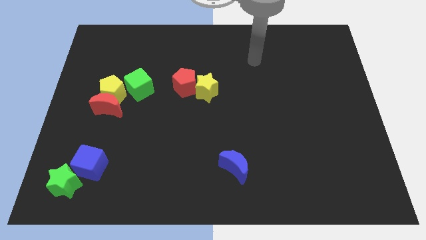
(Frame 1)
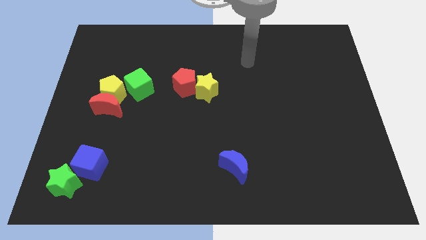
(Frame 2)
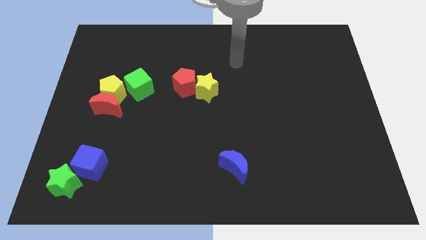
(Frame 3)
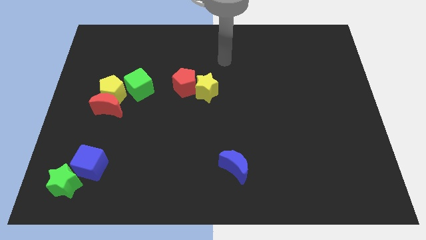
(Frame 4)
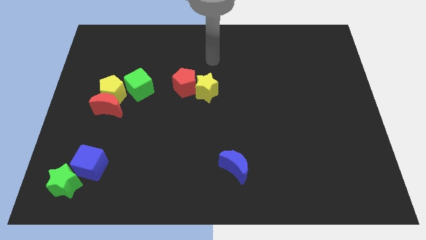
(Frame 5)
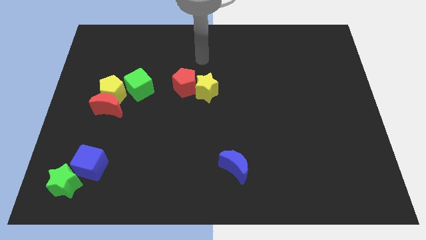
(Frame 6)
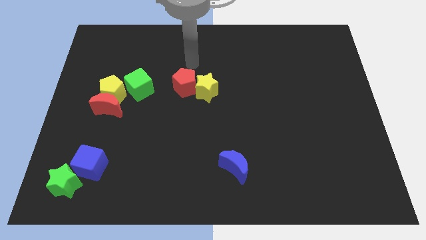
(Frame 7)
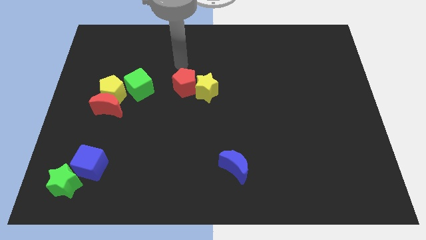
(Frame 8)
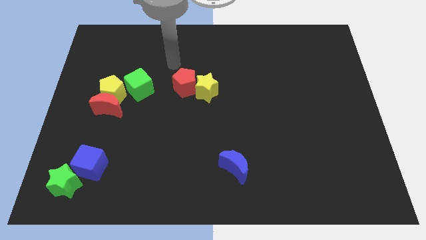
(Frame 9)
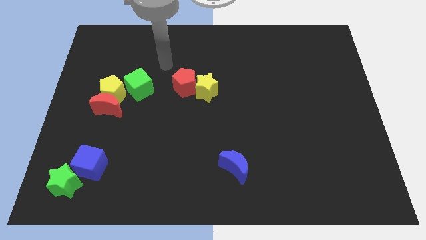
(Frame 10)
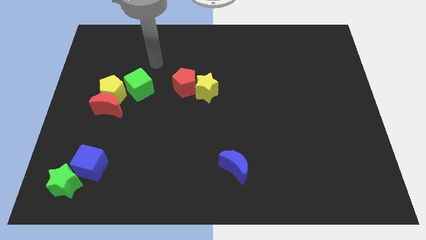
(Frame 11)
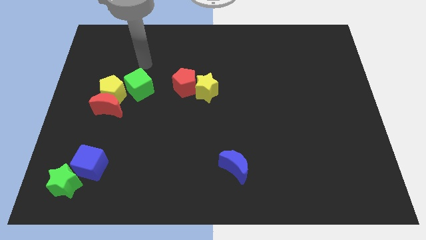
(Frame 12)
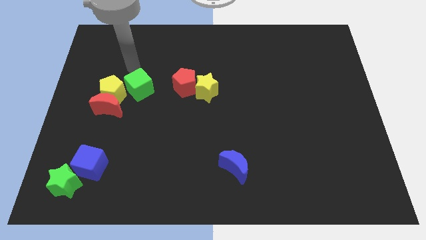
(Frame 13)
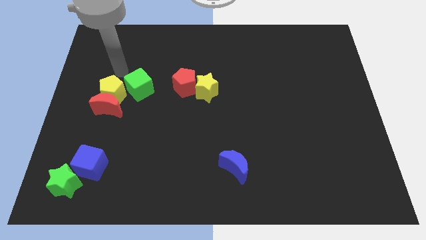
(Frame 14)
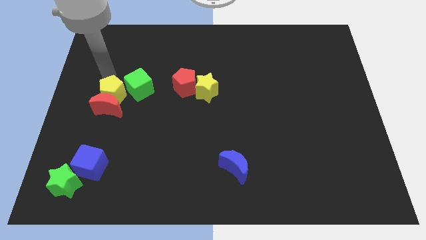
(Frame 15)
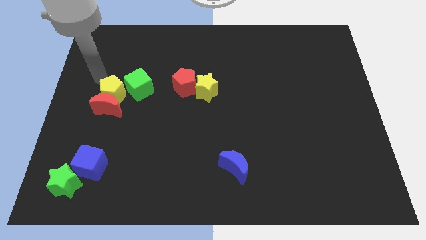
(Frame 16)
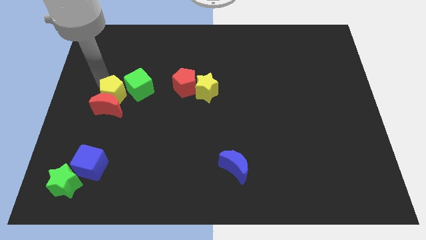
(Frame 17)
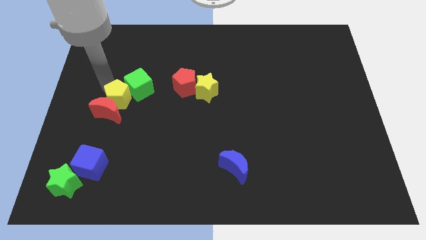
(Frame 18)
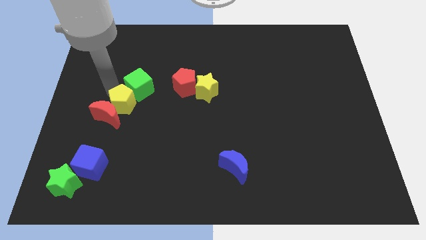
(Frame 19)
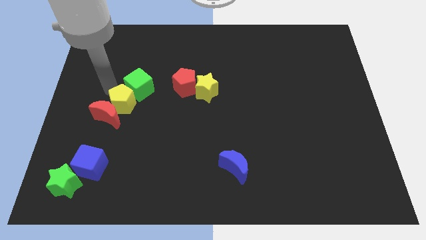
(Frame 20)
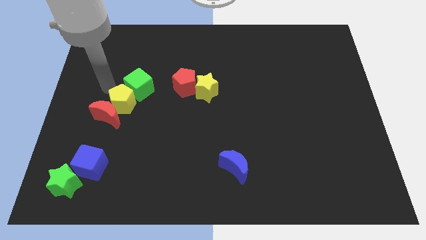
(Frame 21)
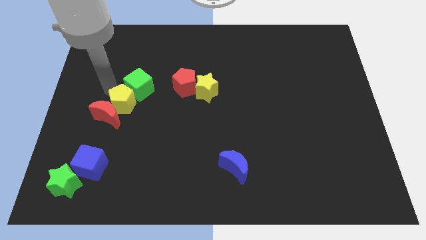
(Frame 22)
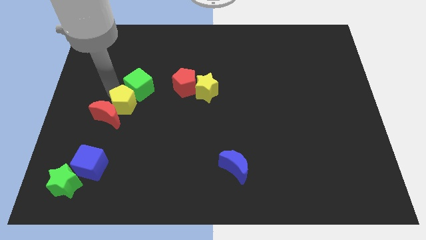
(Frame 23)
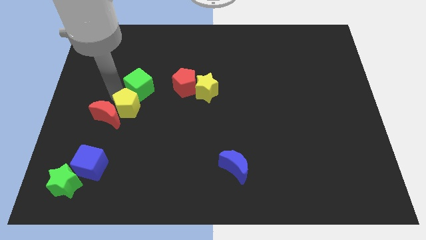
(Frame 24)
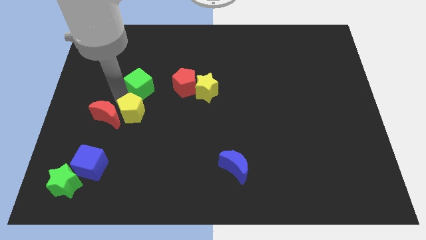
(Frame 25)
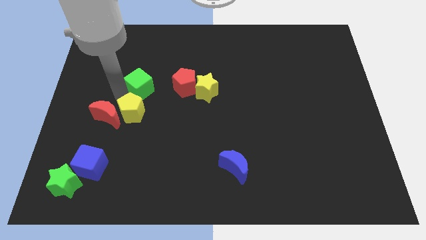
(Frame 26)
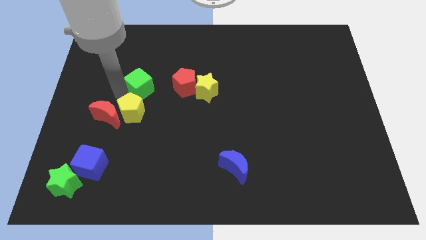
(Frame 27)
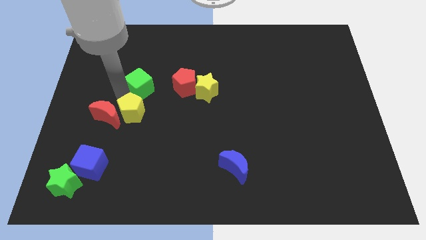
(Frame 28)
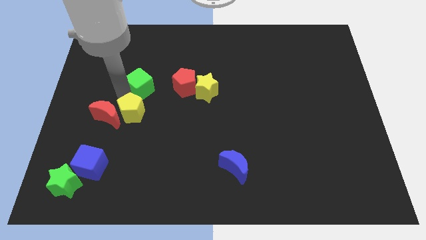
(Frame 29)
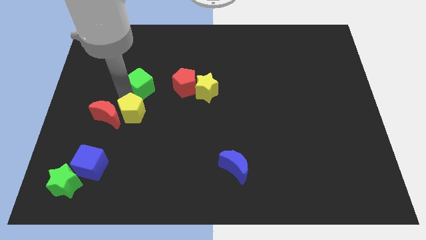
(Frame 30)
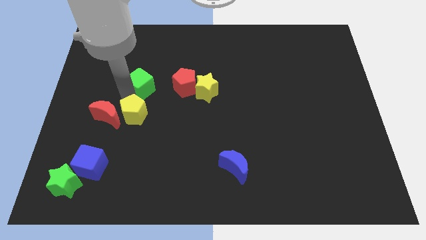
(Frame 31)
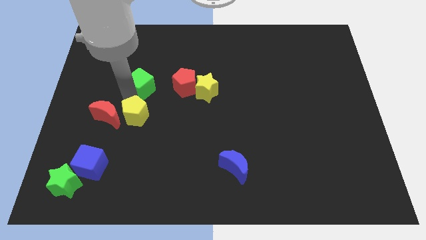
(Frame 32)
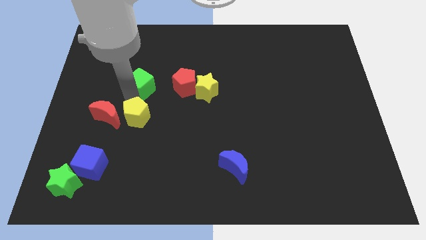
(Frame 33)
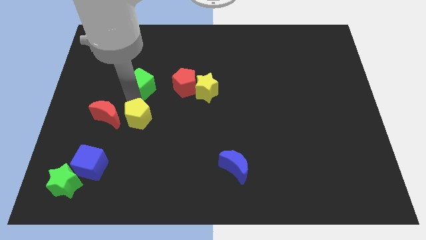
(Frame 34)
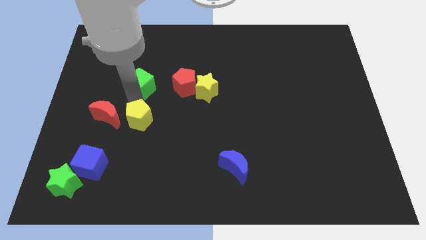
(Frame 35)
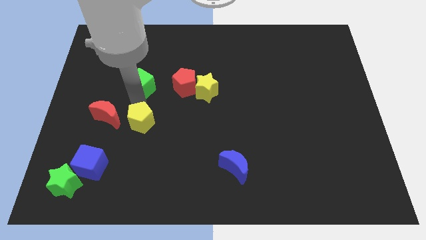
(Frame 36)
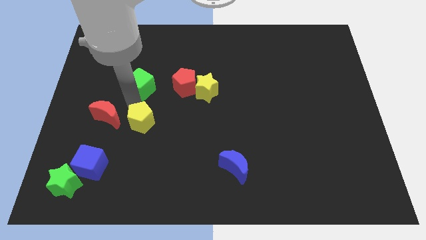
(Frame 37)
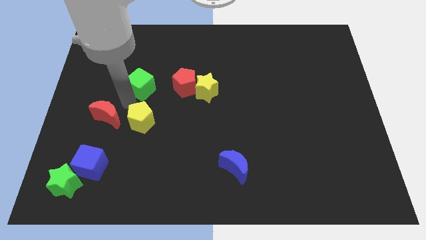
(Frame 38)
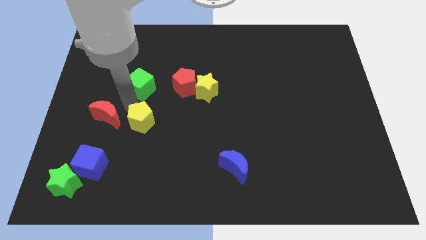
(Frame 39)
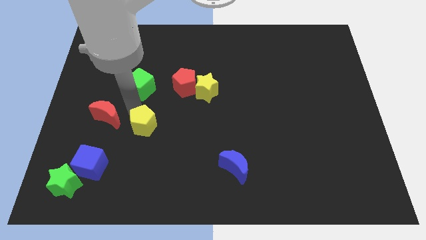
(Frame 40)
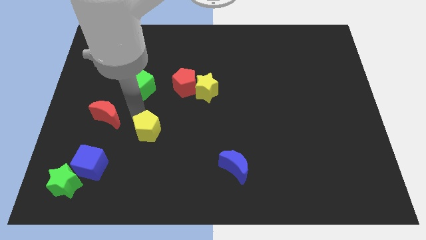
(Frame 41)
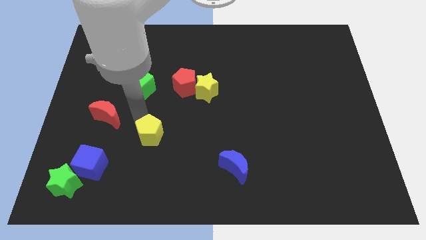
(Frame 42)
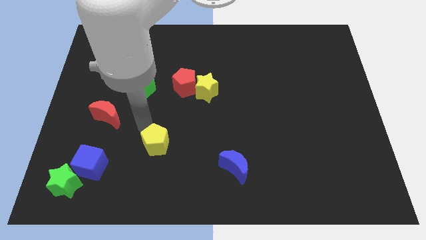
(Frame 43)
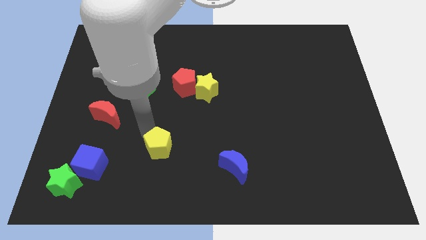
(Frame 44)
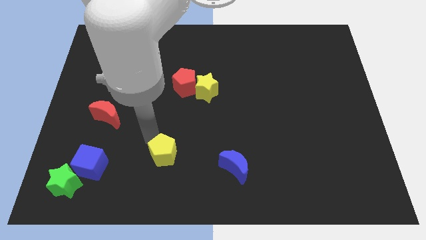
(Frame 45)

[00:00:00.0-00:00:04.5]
slide the yellow pentagon downwards and to the right diagonally

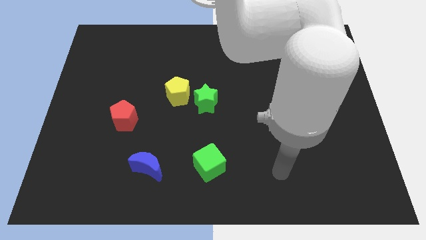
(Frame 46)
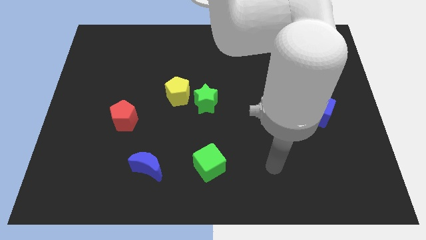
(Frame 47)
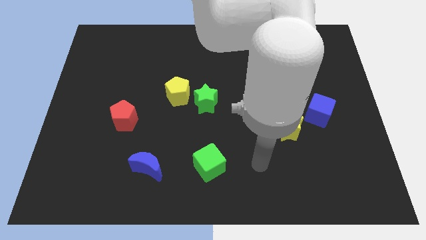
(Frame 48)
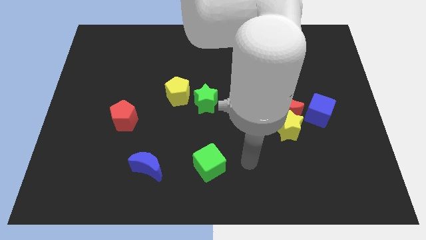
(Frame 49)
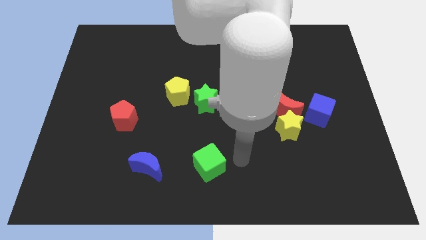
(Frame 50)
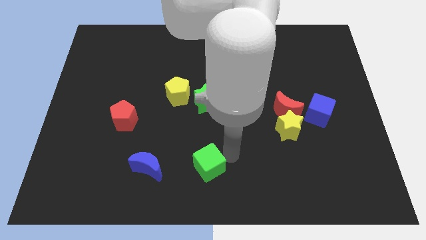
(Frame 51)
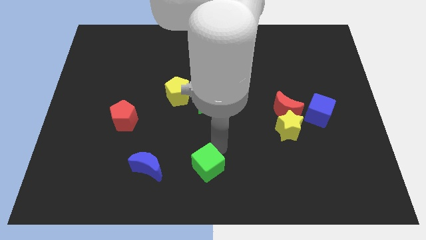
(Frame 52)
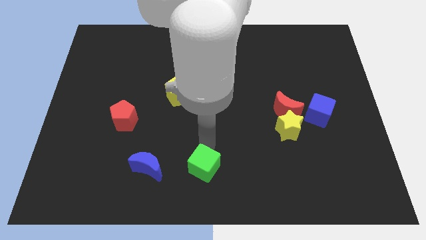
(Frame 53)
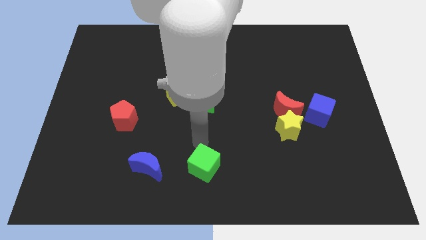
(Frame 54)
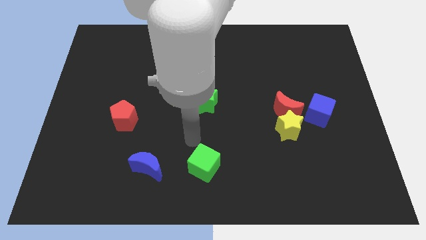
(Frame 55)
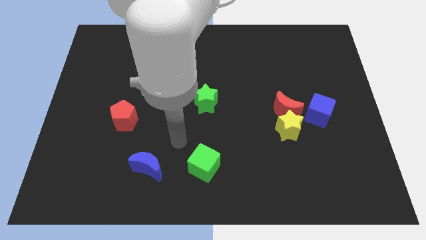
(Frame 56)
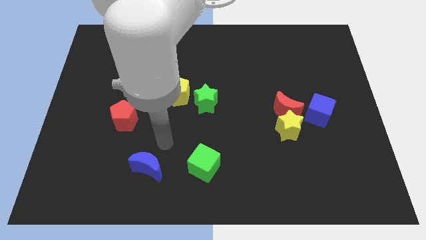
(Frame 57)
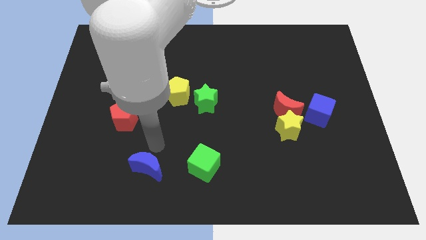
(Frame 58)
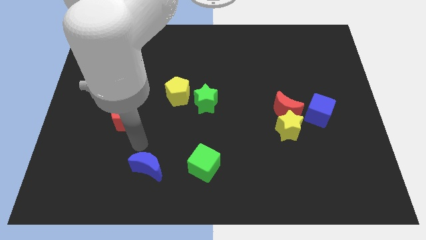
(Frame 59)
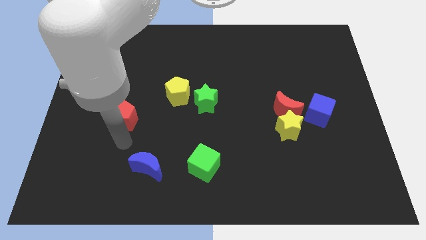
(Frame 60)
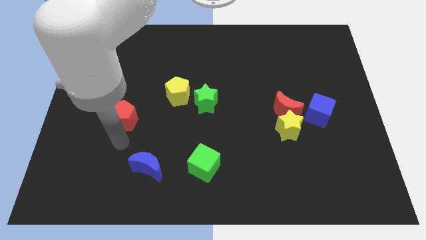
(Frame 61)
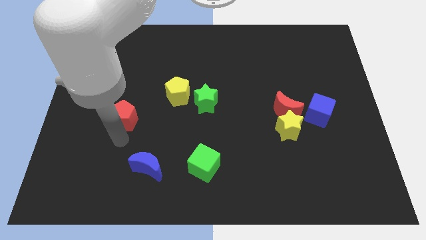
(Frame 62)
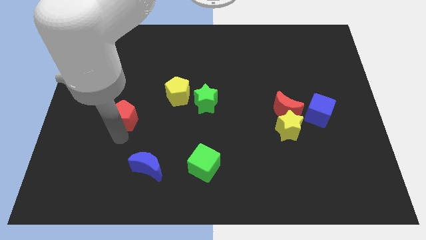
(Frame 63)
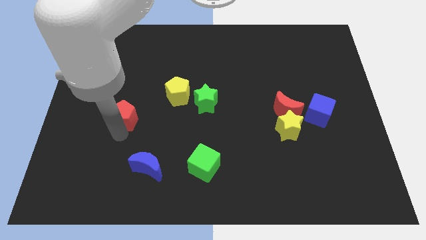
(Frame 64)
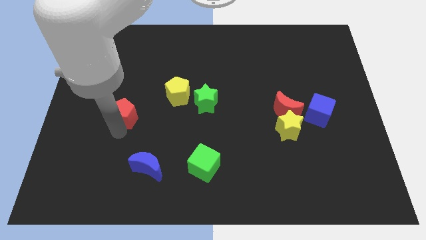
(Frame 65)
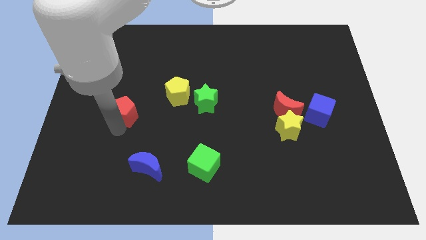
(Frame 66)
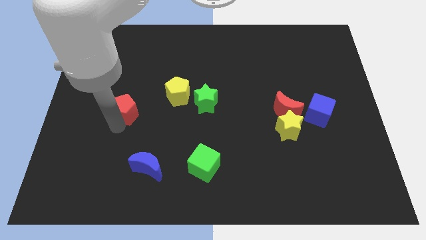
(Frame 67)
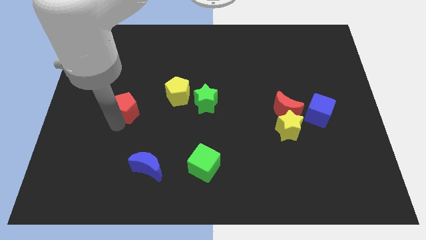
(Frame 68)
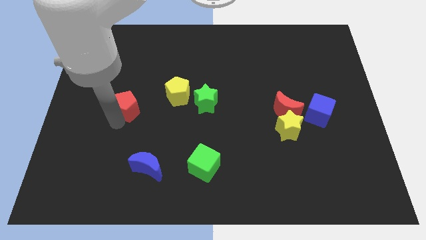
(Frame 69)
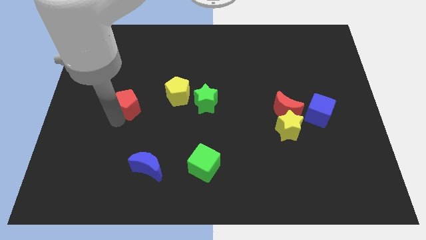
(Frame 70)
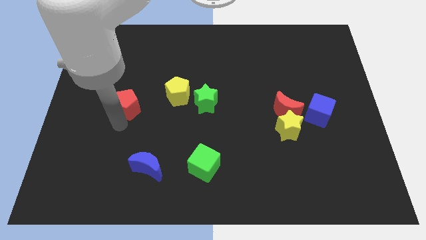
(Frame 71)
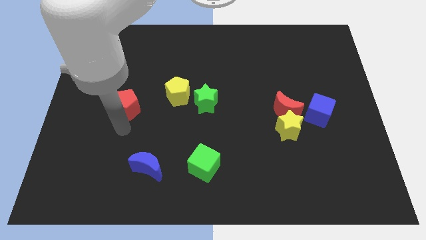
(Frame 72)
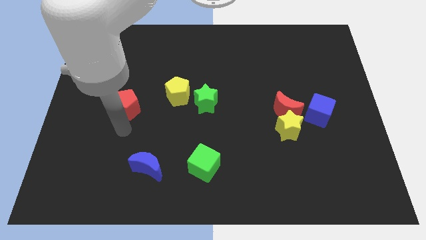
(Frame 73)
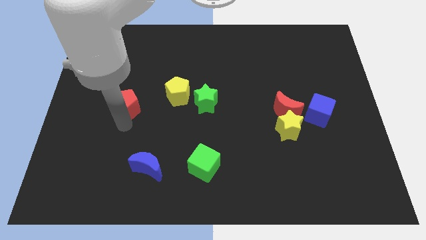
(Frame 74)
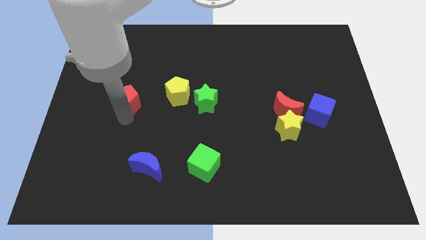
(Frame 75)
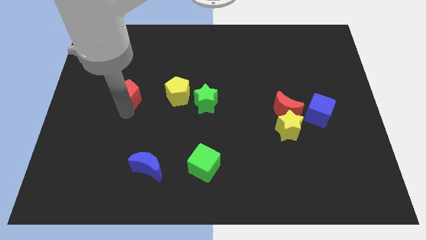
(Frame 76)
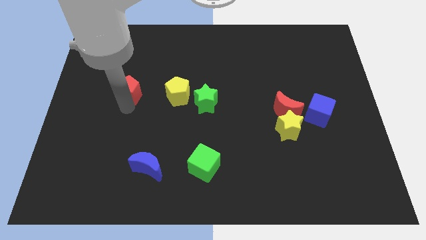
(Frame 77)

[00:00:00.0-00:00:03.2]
slightly push the red pentagon up

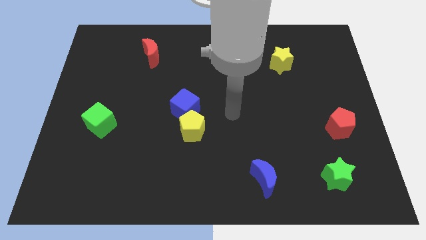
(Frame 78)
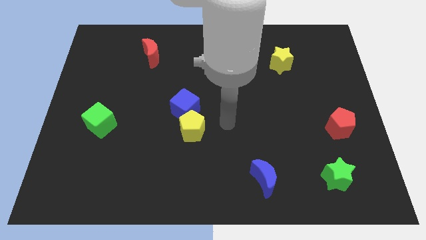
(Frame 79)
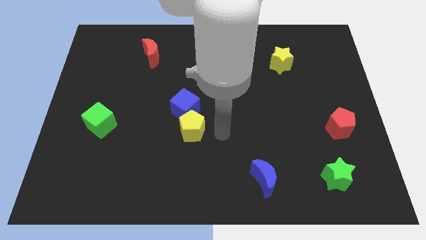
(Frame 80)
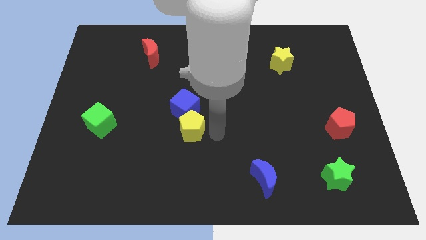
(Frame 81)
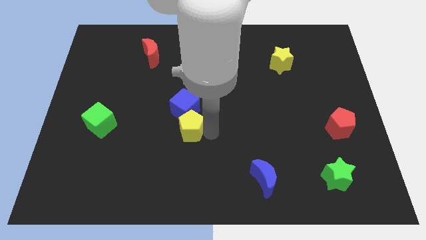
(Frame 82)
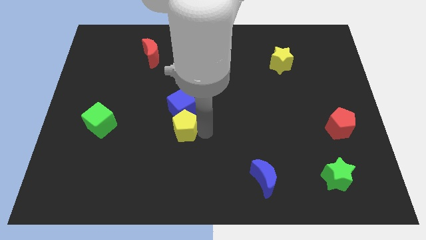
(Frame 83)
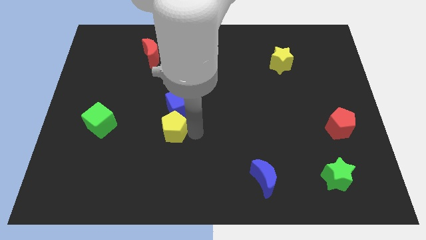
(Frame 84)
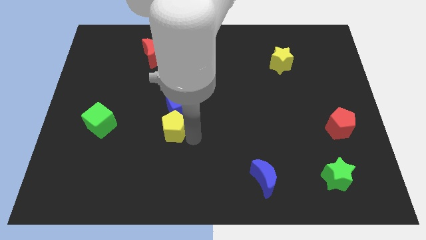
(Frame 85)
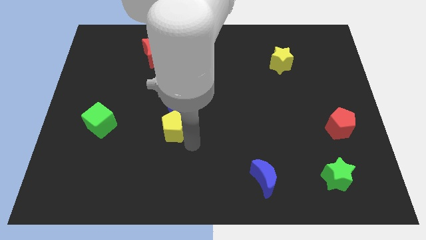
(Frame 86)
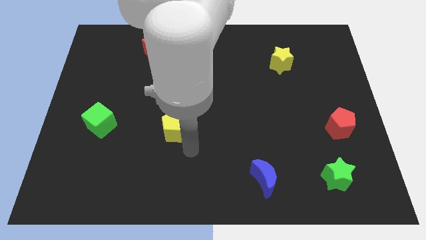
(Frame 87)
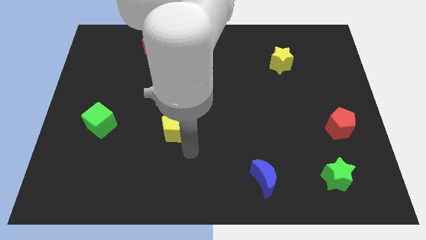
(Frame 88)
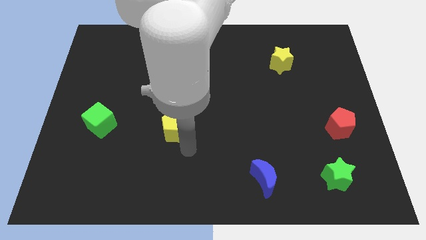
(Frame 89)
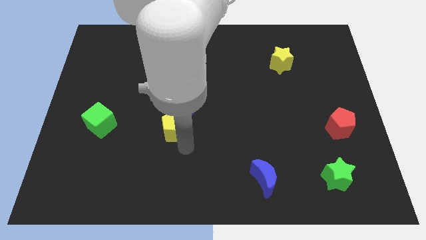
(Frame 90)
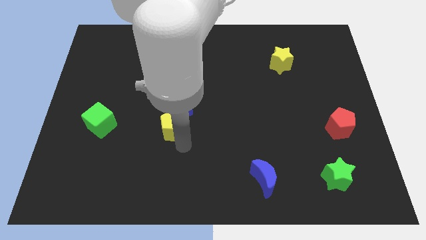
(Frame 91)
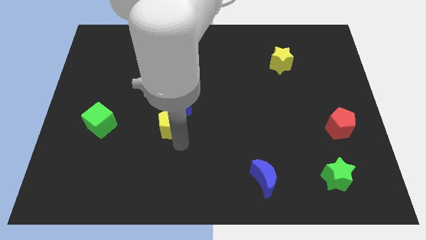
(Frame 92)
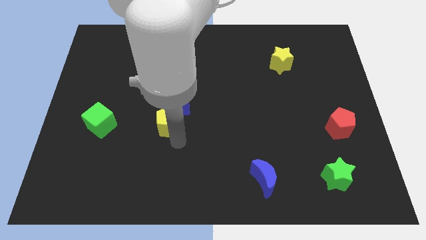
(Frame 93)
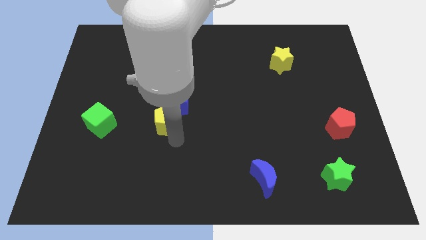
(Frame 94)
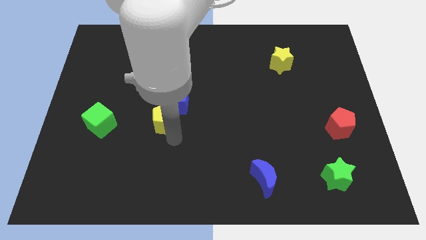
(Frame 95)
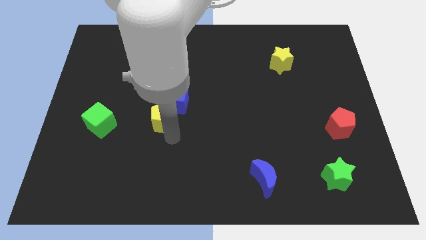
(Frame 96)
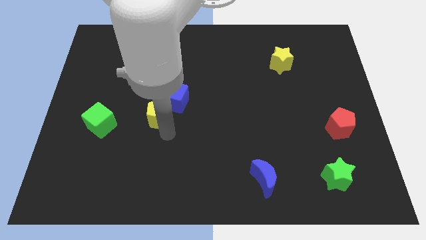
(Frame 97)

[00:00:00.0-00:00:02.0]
slightly push the yellow pentagon upwards and then left
